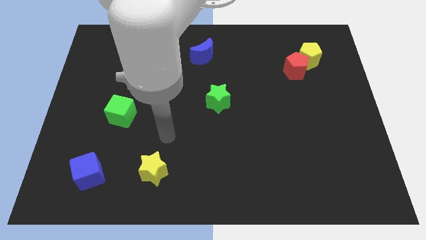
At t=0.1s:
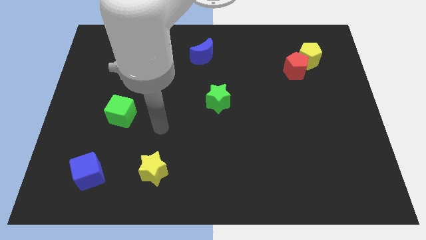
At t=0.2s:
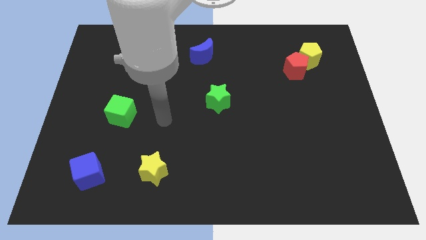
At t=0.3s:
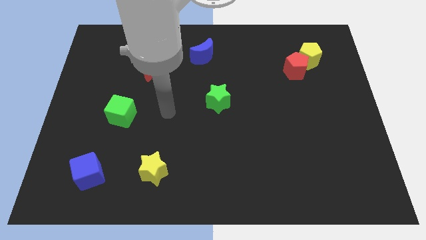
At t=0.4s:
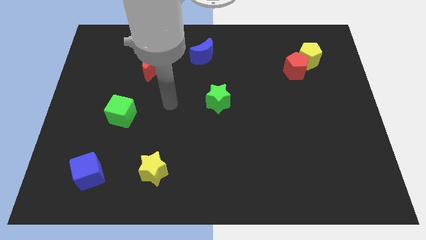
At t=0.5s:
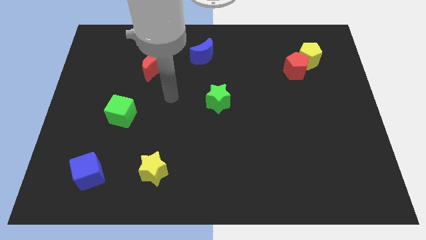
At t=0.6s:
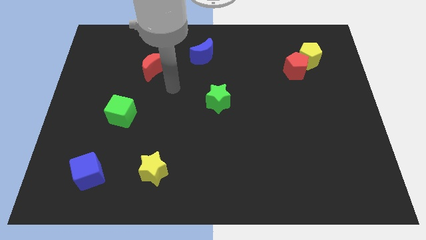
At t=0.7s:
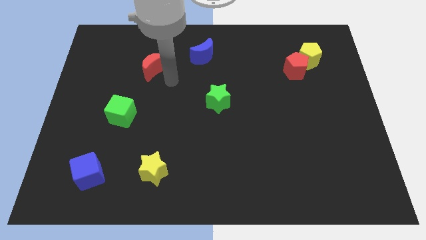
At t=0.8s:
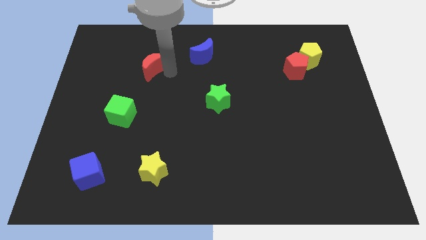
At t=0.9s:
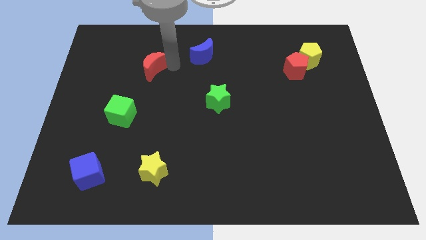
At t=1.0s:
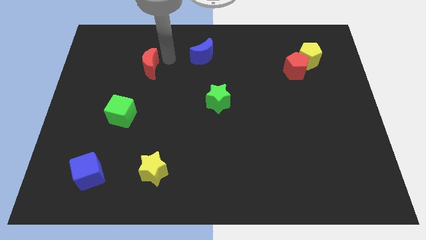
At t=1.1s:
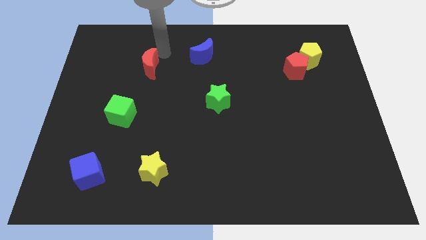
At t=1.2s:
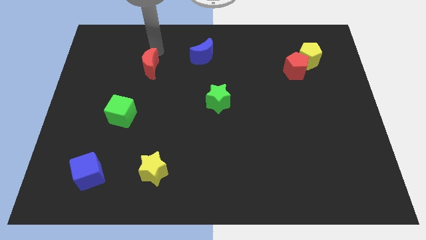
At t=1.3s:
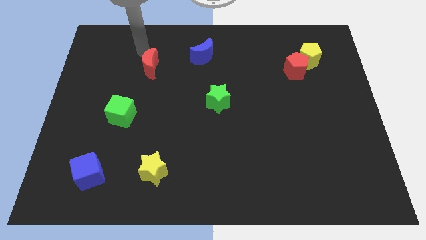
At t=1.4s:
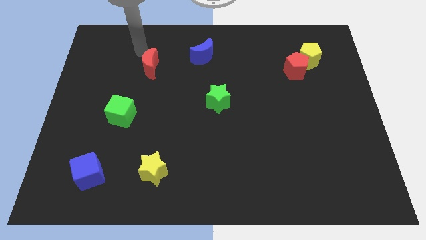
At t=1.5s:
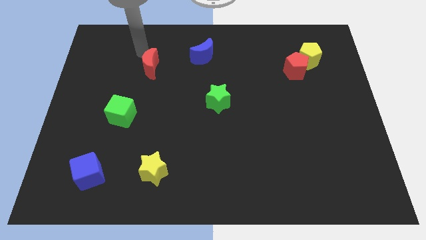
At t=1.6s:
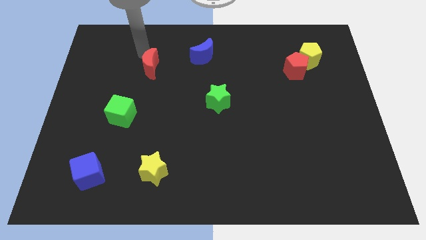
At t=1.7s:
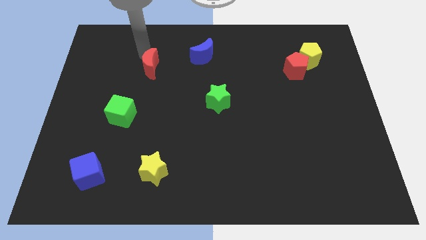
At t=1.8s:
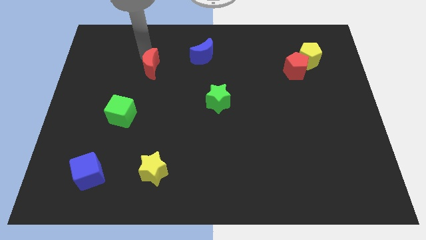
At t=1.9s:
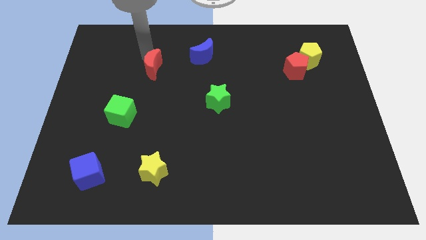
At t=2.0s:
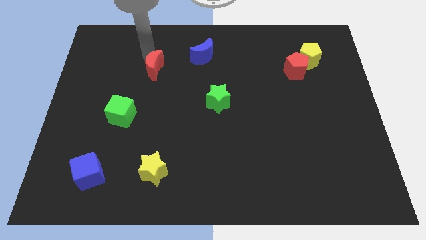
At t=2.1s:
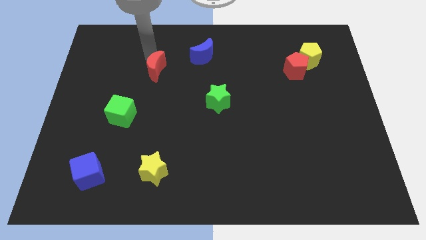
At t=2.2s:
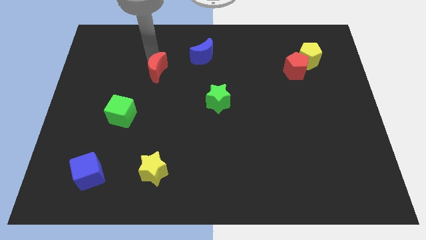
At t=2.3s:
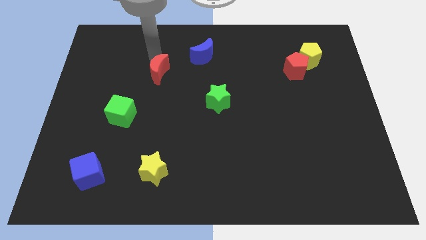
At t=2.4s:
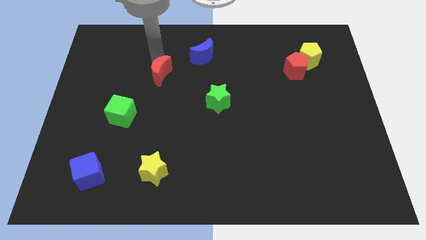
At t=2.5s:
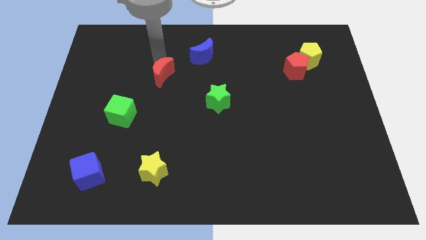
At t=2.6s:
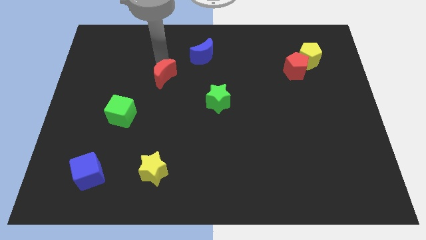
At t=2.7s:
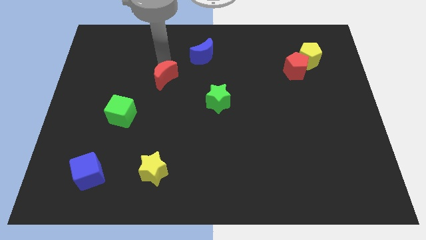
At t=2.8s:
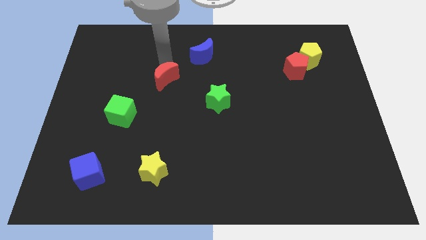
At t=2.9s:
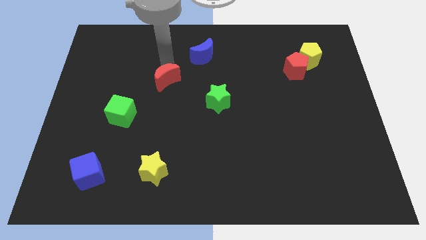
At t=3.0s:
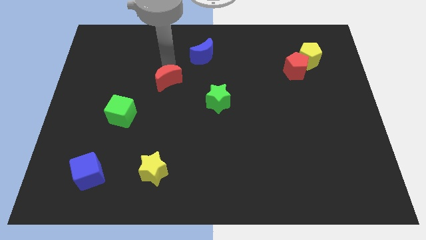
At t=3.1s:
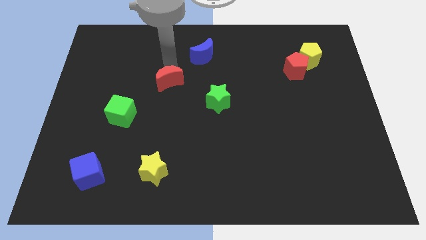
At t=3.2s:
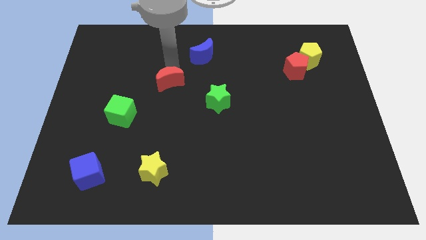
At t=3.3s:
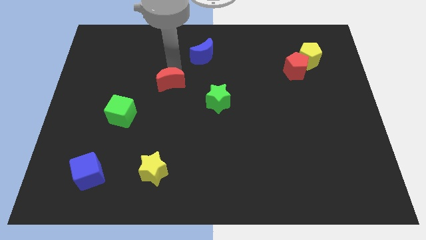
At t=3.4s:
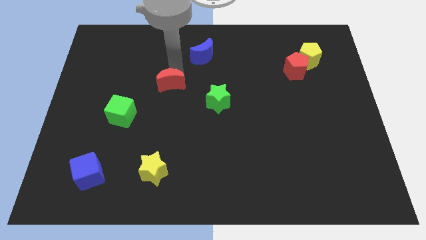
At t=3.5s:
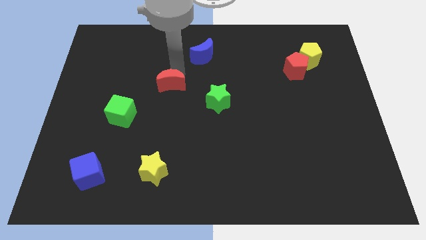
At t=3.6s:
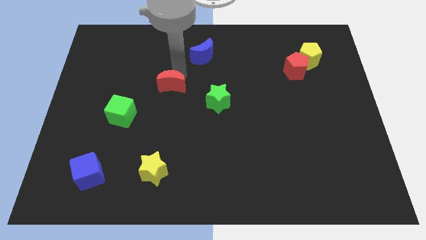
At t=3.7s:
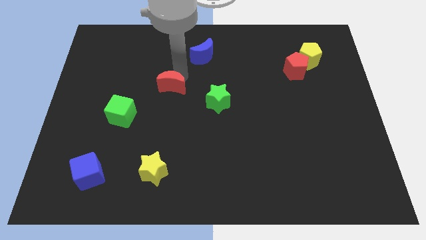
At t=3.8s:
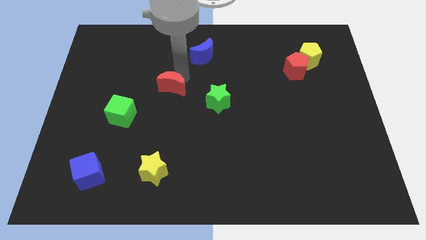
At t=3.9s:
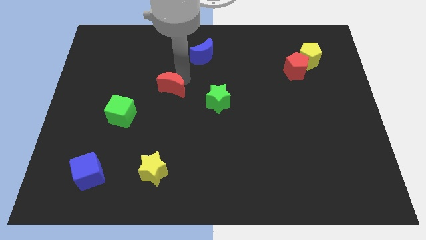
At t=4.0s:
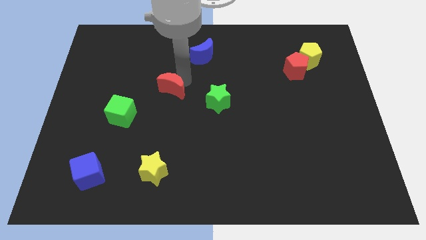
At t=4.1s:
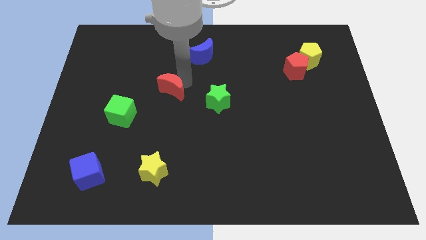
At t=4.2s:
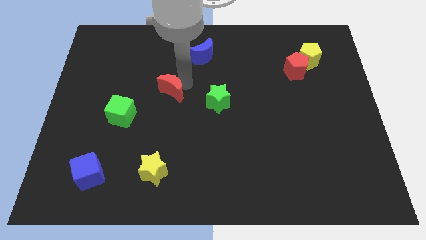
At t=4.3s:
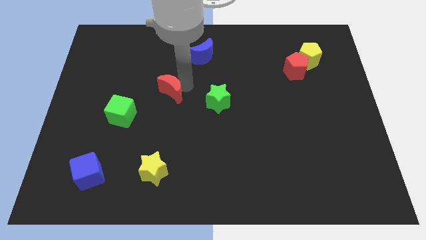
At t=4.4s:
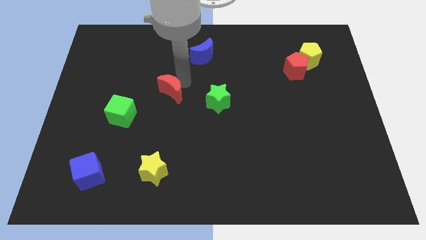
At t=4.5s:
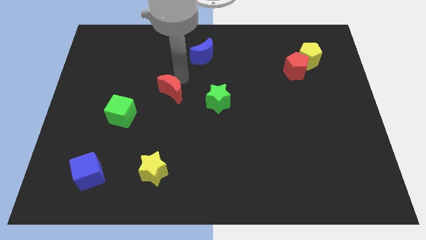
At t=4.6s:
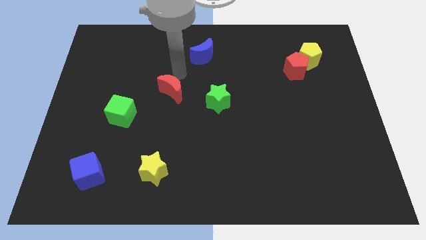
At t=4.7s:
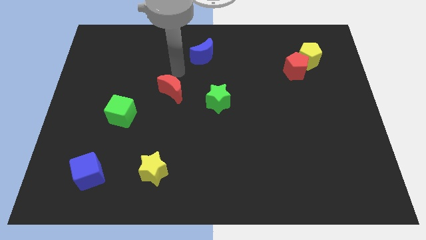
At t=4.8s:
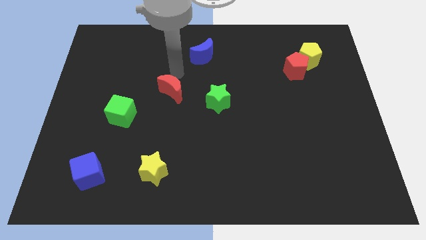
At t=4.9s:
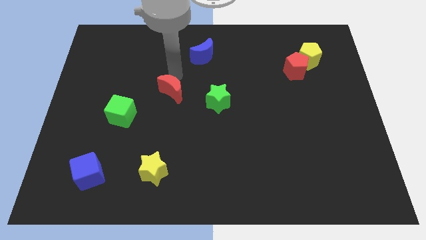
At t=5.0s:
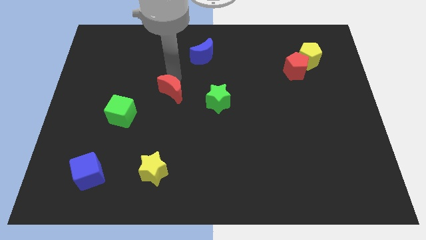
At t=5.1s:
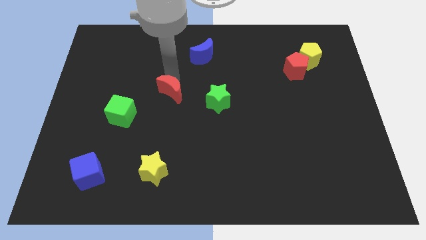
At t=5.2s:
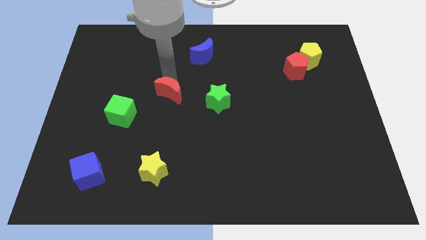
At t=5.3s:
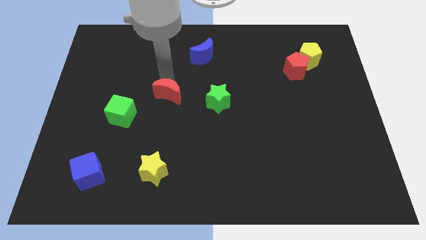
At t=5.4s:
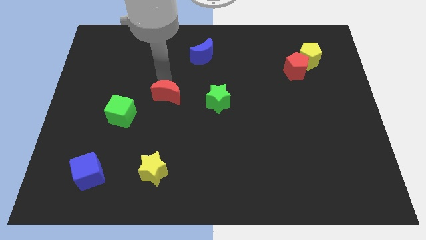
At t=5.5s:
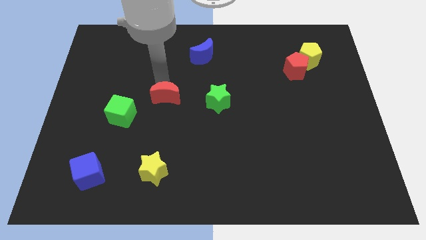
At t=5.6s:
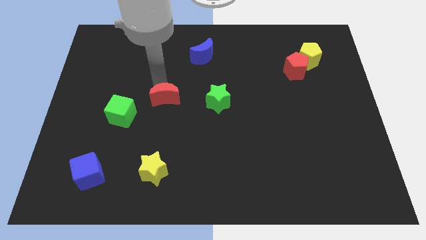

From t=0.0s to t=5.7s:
move the red moon to the right of the green cube

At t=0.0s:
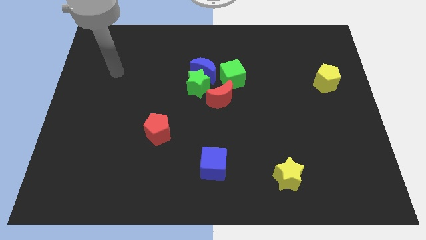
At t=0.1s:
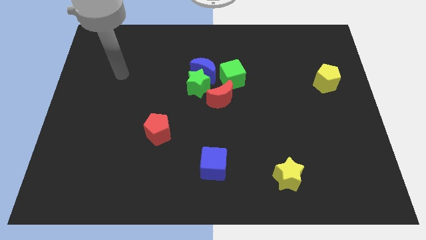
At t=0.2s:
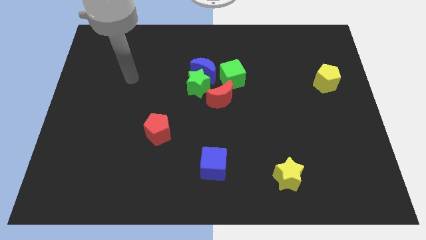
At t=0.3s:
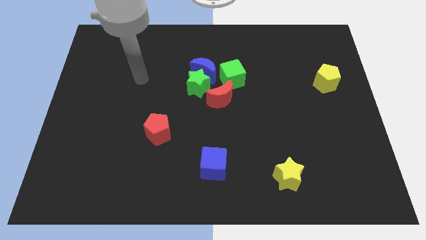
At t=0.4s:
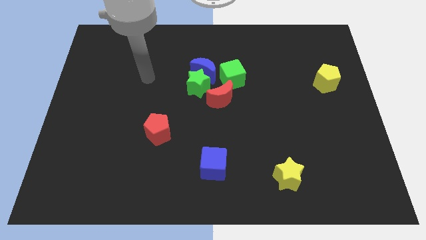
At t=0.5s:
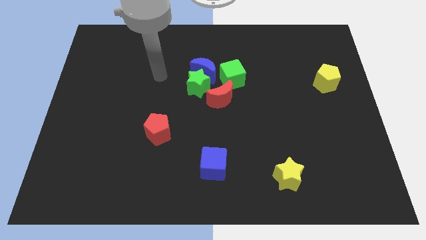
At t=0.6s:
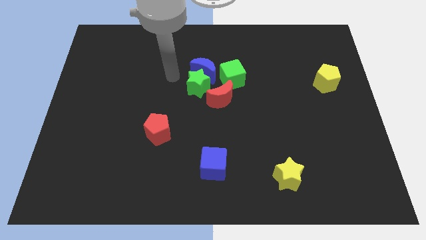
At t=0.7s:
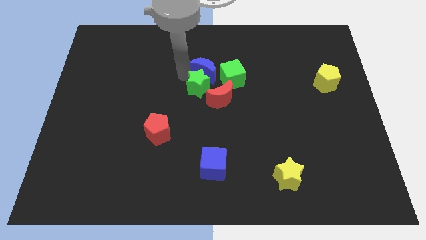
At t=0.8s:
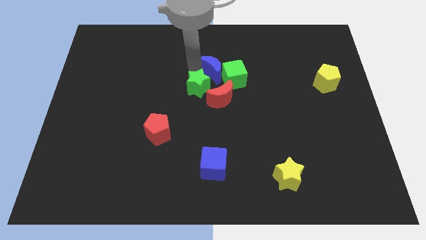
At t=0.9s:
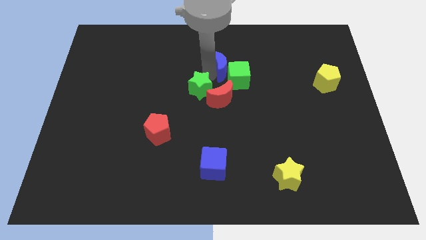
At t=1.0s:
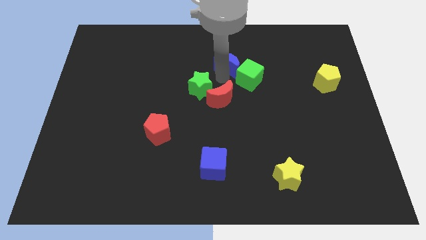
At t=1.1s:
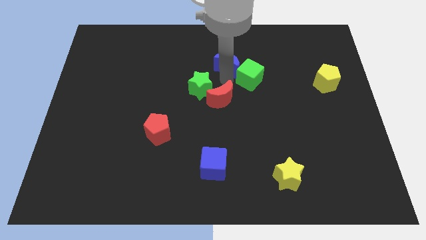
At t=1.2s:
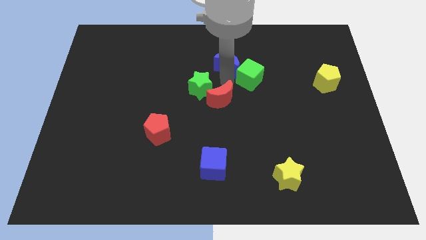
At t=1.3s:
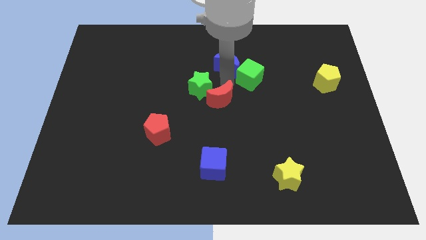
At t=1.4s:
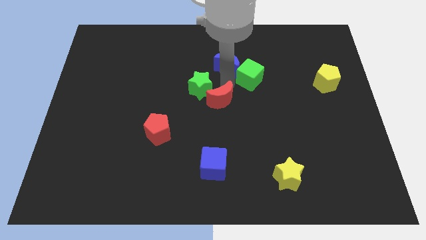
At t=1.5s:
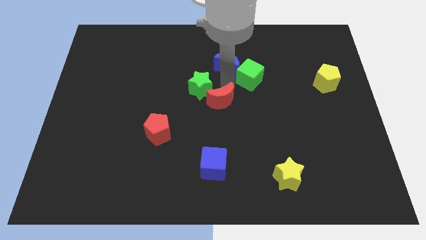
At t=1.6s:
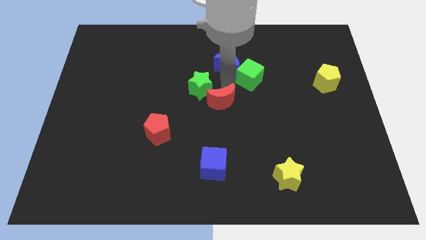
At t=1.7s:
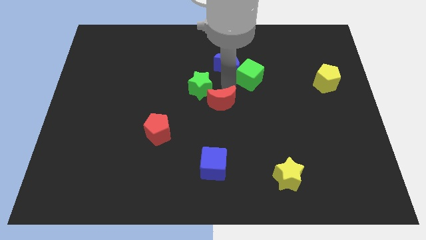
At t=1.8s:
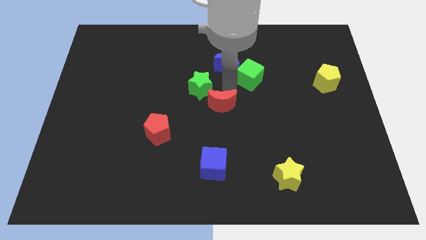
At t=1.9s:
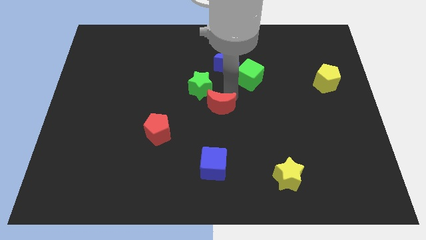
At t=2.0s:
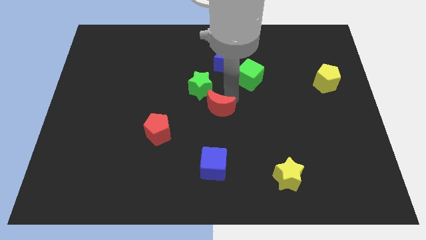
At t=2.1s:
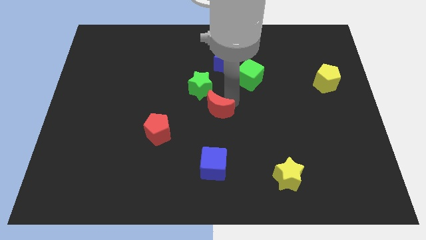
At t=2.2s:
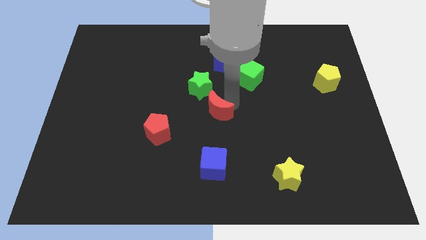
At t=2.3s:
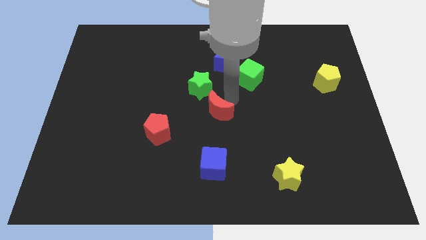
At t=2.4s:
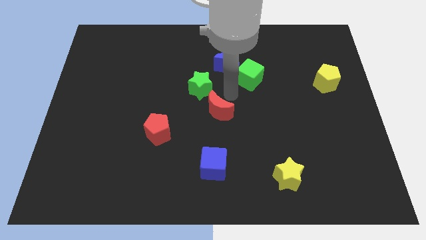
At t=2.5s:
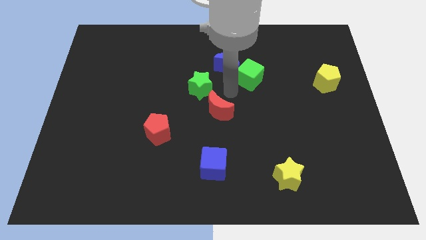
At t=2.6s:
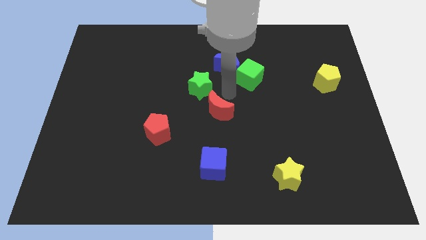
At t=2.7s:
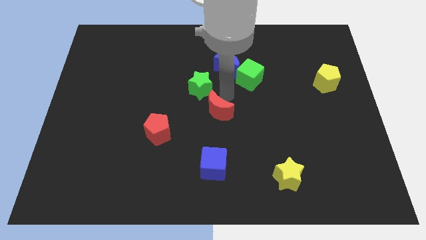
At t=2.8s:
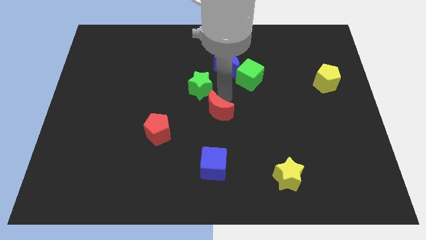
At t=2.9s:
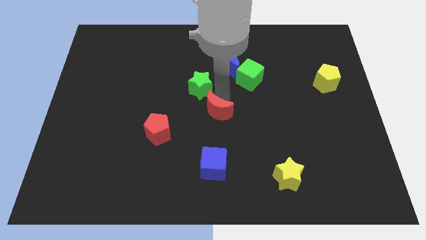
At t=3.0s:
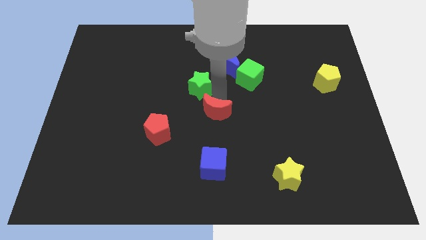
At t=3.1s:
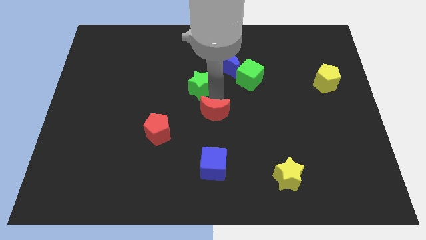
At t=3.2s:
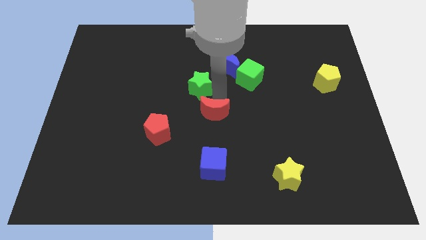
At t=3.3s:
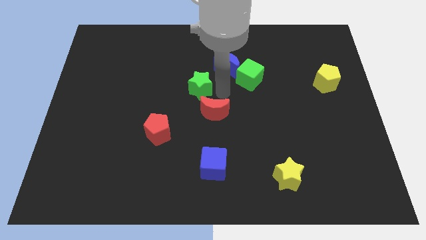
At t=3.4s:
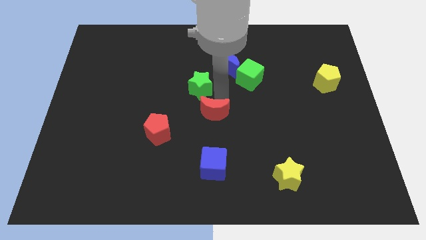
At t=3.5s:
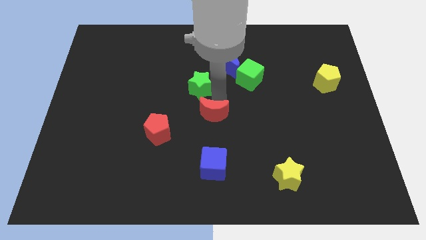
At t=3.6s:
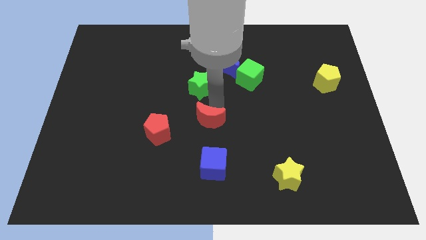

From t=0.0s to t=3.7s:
put the red moon to the right of the red pentagon
